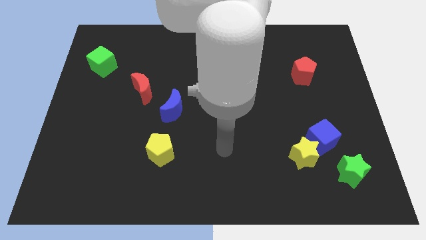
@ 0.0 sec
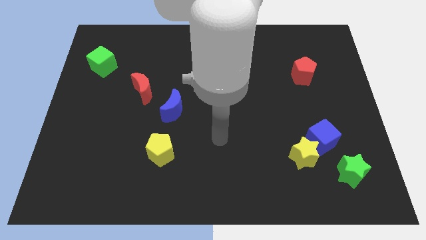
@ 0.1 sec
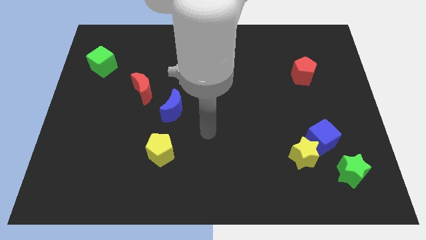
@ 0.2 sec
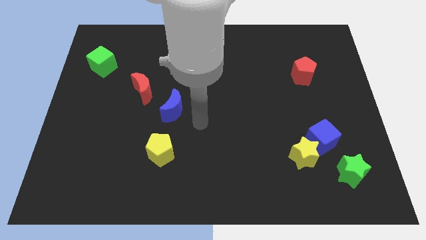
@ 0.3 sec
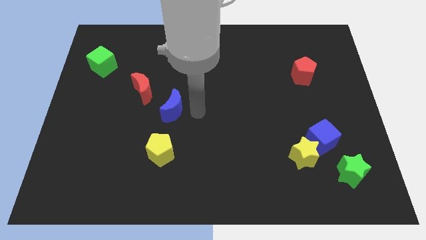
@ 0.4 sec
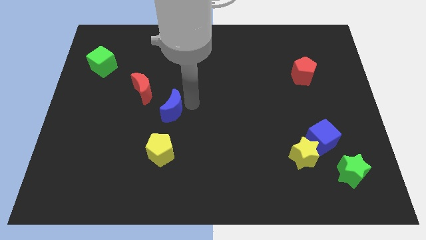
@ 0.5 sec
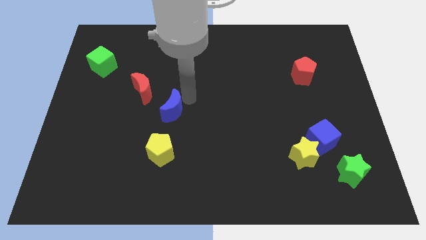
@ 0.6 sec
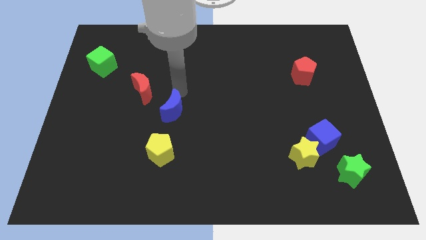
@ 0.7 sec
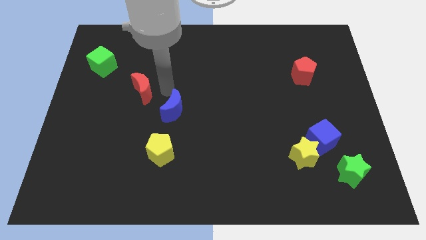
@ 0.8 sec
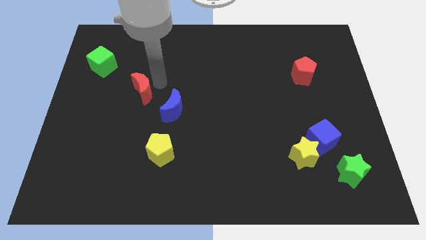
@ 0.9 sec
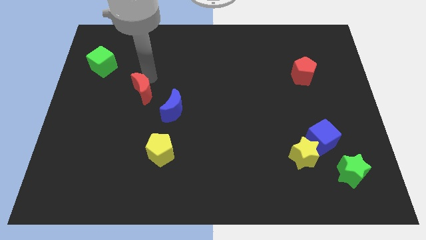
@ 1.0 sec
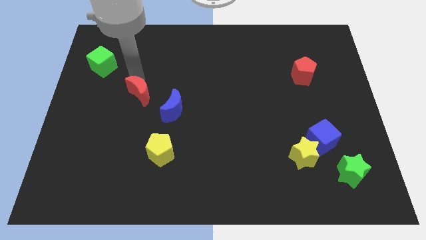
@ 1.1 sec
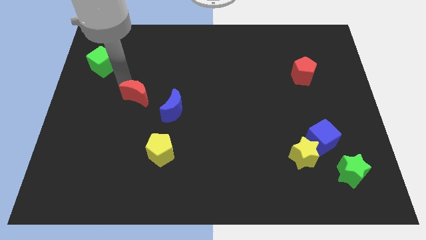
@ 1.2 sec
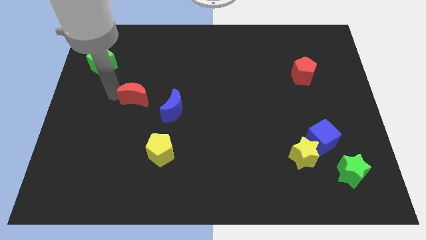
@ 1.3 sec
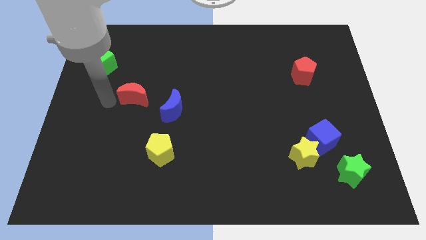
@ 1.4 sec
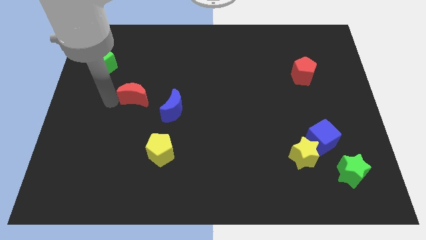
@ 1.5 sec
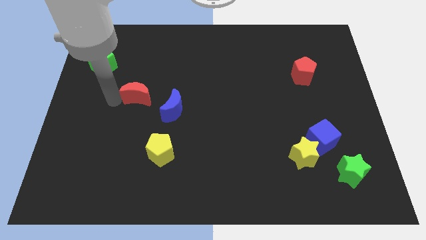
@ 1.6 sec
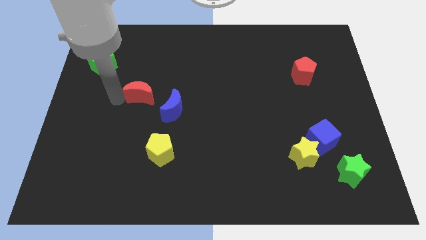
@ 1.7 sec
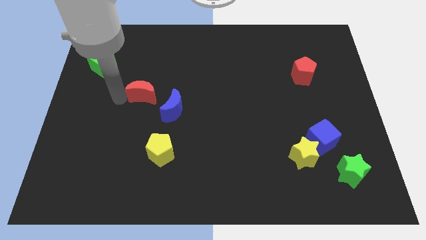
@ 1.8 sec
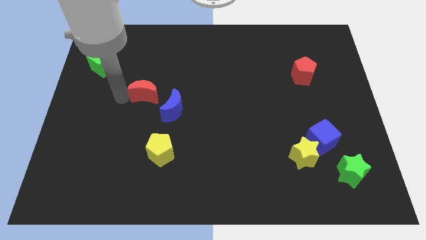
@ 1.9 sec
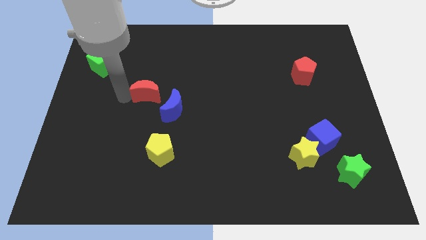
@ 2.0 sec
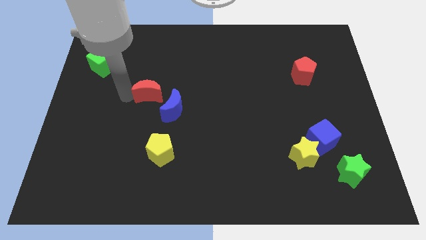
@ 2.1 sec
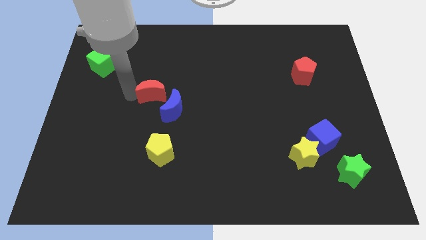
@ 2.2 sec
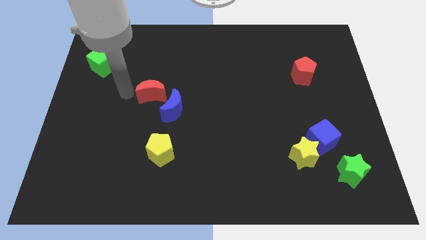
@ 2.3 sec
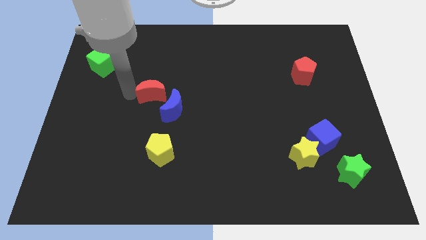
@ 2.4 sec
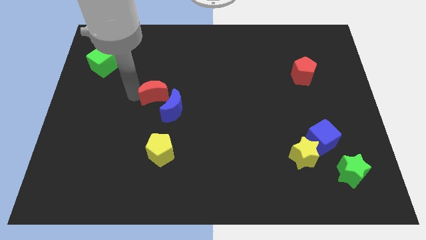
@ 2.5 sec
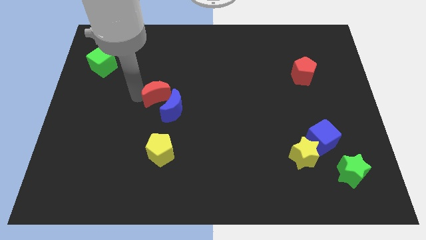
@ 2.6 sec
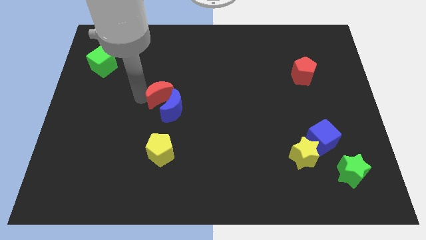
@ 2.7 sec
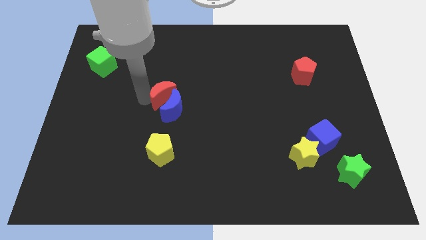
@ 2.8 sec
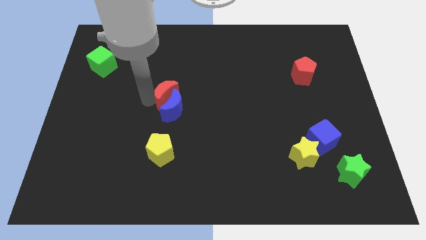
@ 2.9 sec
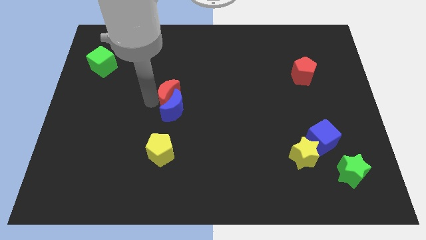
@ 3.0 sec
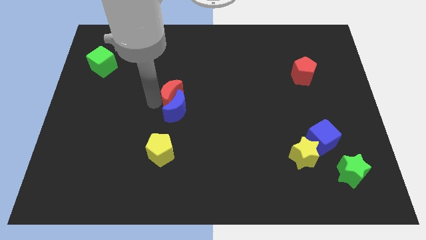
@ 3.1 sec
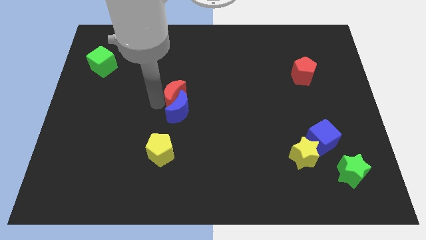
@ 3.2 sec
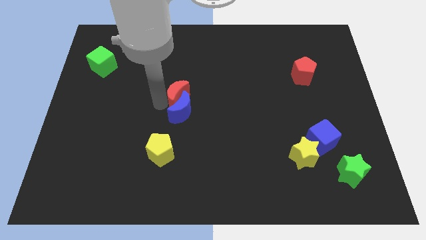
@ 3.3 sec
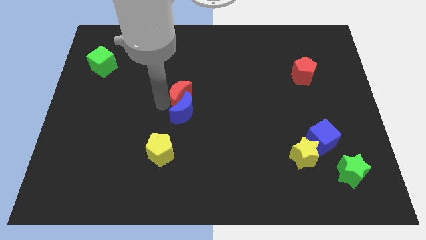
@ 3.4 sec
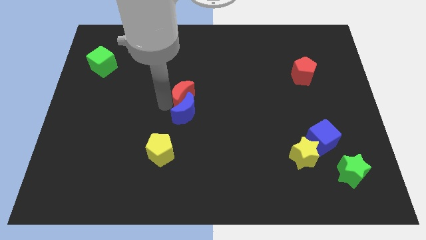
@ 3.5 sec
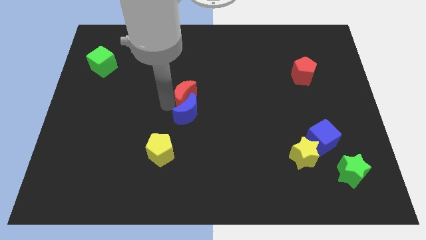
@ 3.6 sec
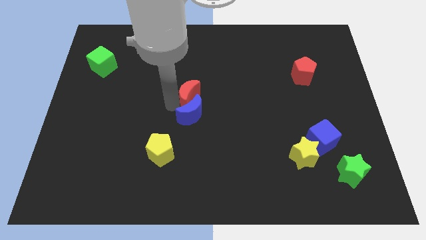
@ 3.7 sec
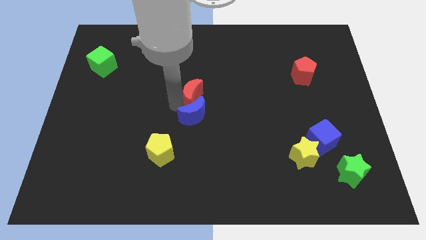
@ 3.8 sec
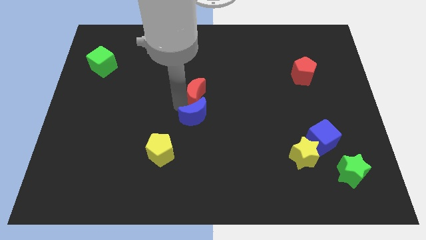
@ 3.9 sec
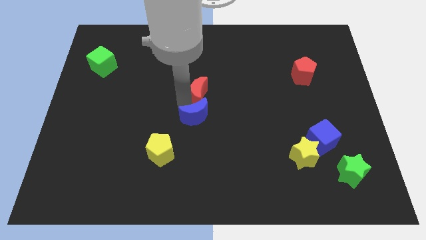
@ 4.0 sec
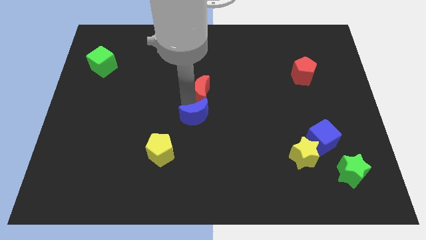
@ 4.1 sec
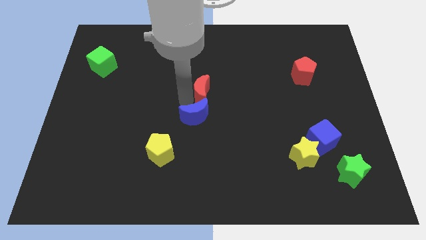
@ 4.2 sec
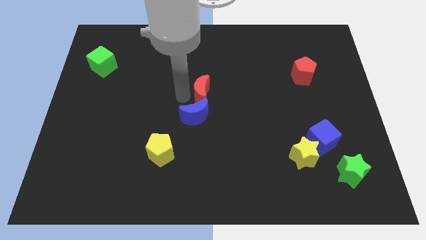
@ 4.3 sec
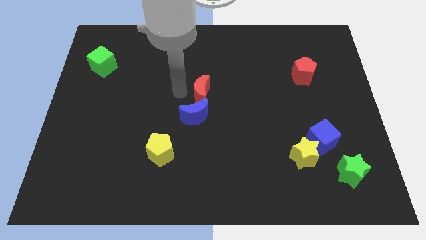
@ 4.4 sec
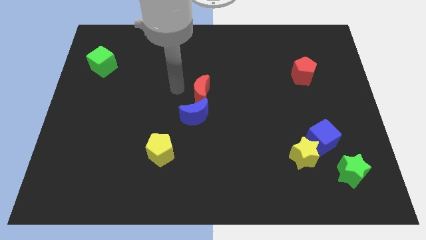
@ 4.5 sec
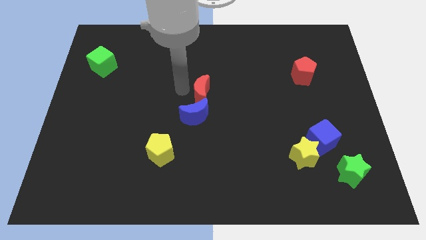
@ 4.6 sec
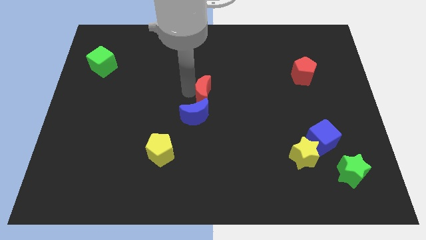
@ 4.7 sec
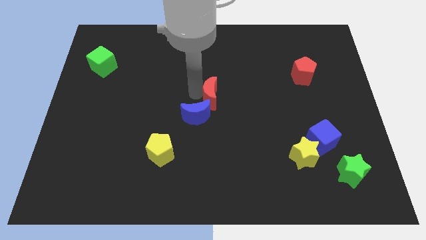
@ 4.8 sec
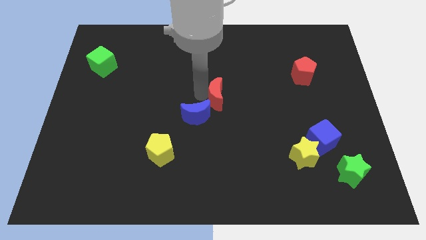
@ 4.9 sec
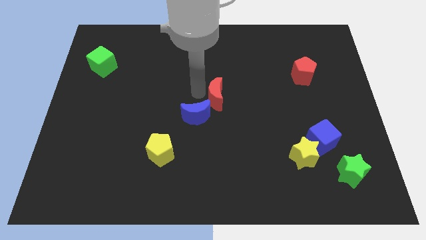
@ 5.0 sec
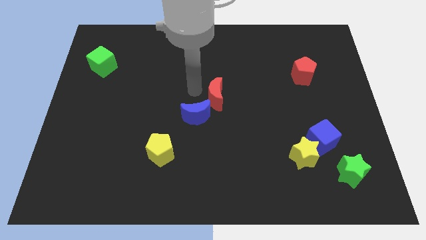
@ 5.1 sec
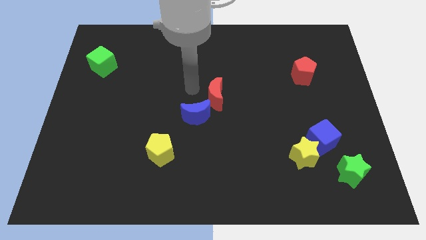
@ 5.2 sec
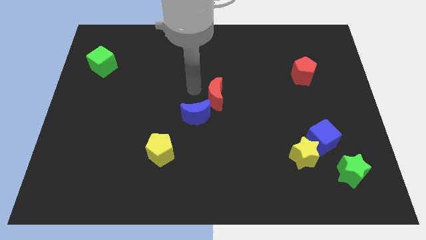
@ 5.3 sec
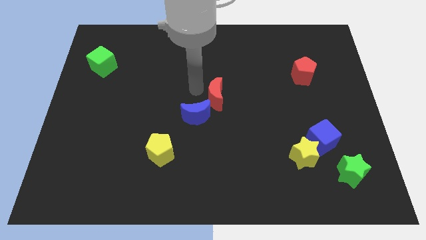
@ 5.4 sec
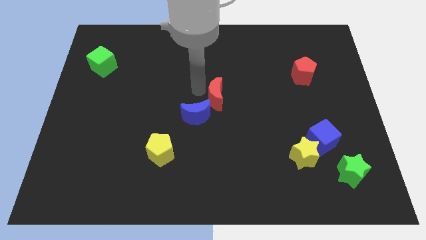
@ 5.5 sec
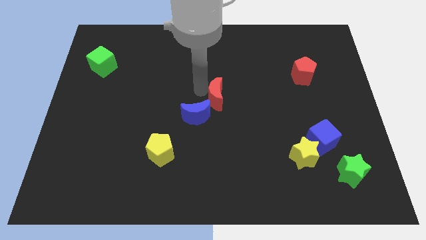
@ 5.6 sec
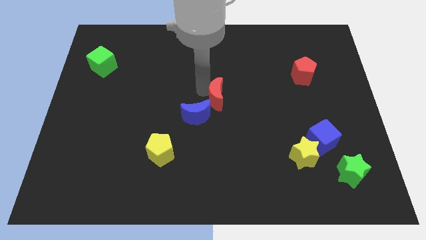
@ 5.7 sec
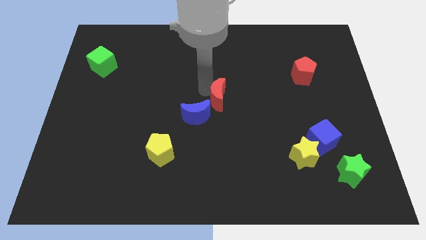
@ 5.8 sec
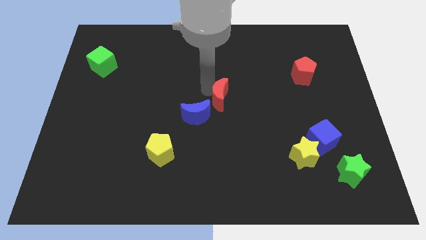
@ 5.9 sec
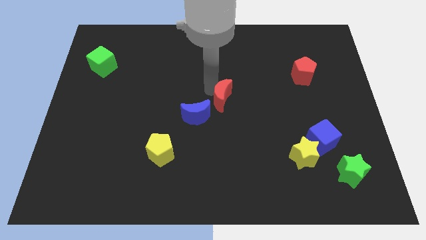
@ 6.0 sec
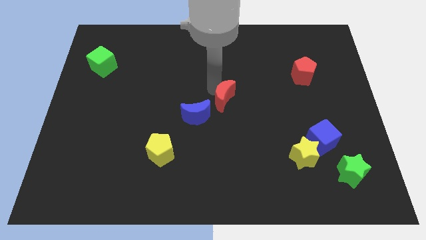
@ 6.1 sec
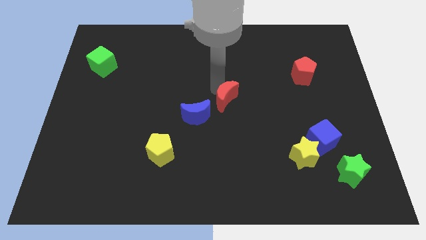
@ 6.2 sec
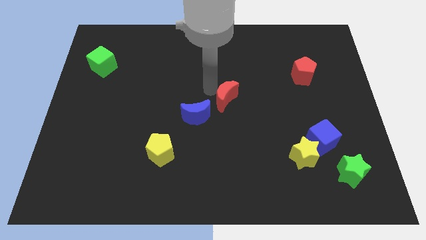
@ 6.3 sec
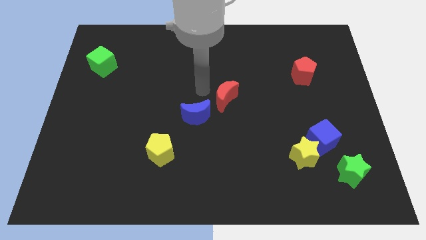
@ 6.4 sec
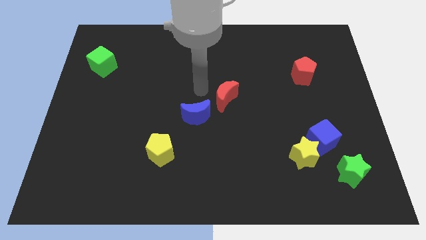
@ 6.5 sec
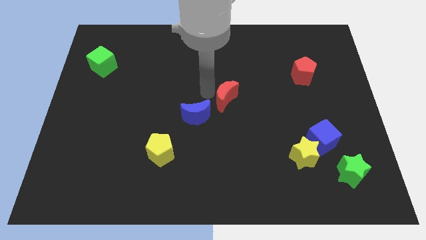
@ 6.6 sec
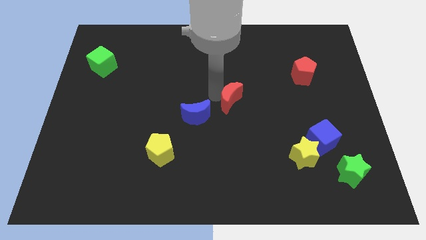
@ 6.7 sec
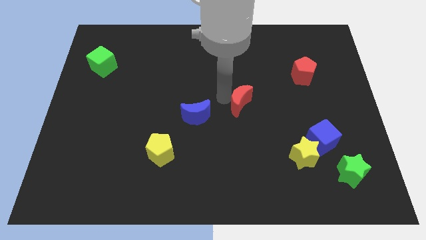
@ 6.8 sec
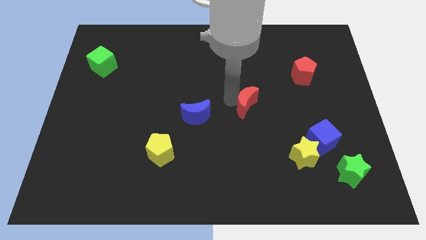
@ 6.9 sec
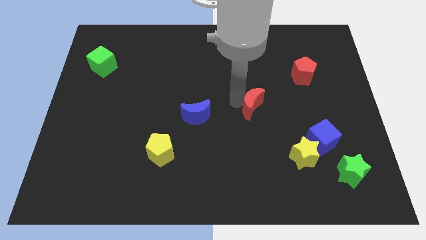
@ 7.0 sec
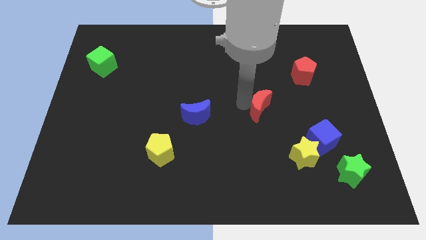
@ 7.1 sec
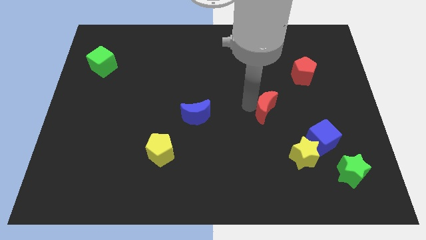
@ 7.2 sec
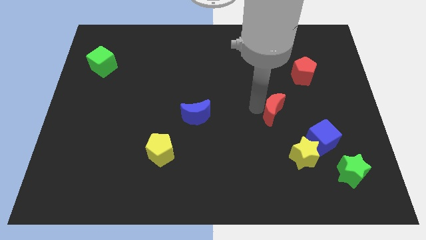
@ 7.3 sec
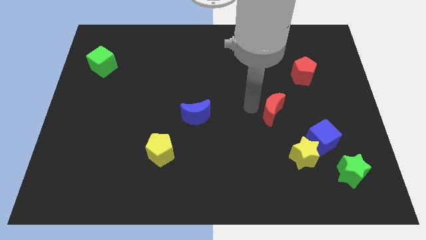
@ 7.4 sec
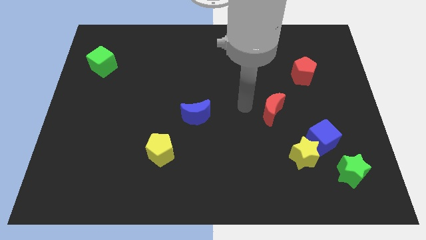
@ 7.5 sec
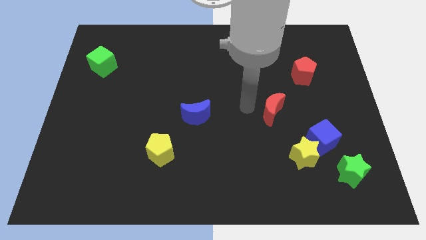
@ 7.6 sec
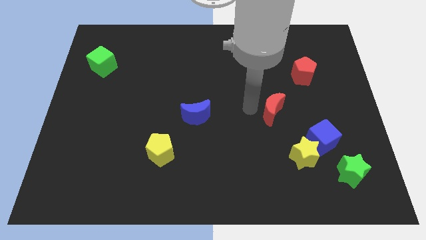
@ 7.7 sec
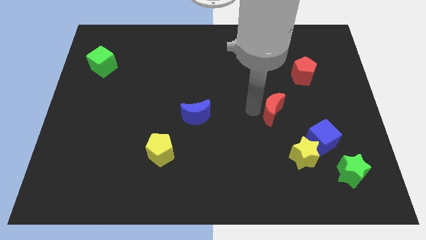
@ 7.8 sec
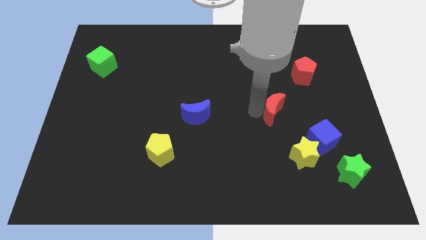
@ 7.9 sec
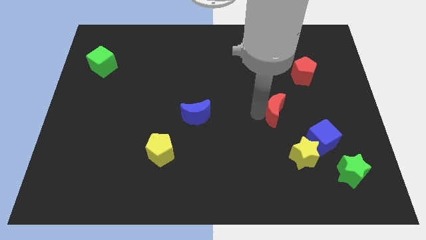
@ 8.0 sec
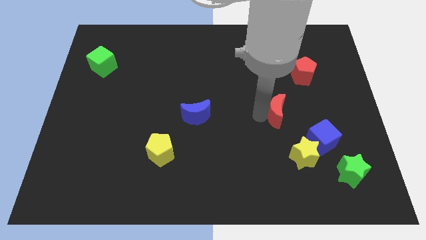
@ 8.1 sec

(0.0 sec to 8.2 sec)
slide the red moon to the top of the yellow star

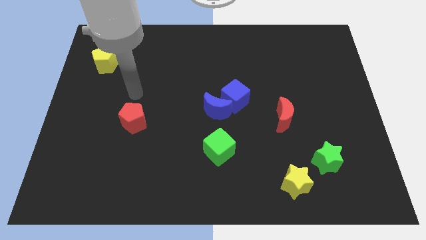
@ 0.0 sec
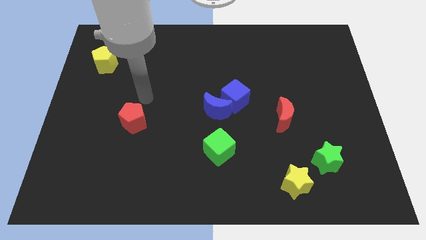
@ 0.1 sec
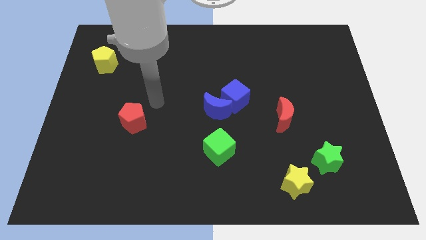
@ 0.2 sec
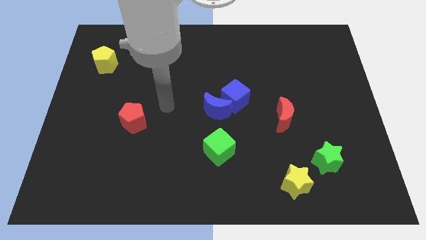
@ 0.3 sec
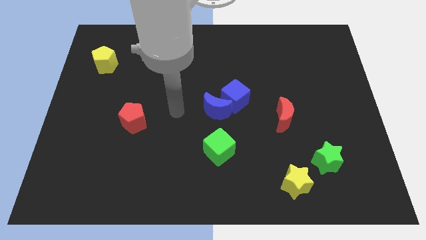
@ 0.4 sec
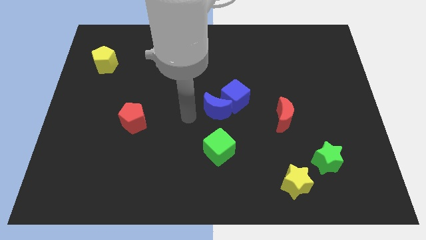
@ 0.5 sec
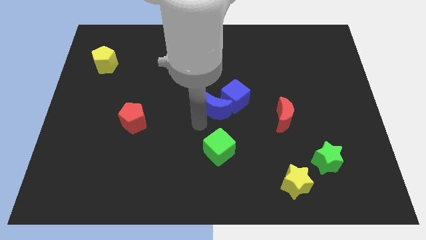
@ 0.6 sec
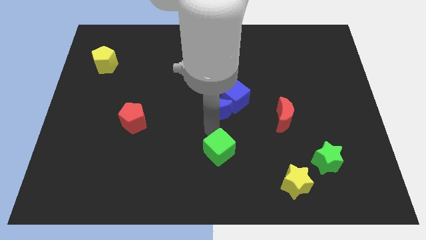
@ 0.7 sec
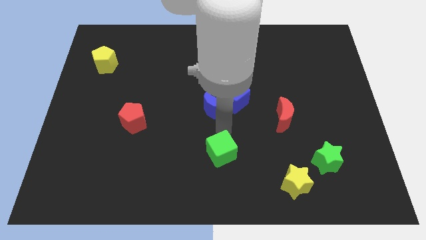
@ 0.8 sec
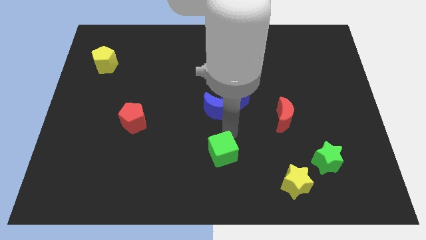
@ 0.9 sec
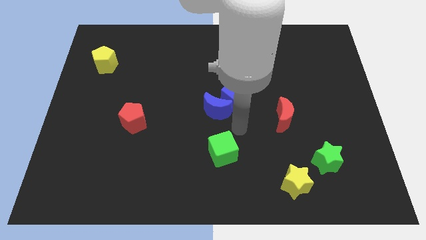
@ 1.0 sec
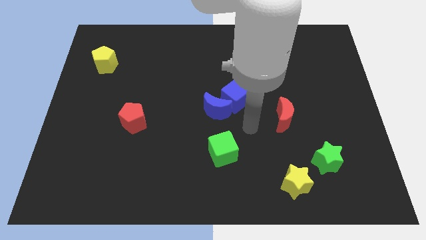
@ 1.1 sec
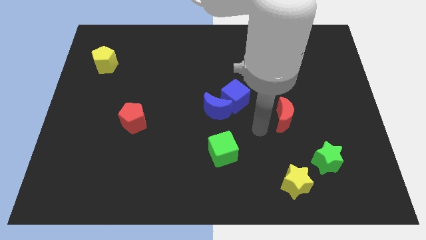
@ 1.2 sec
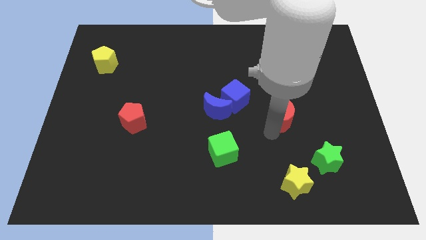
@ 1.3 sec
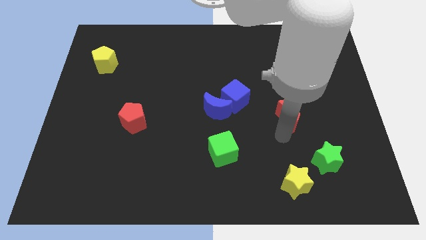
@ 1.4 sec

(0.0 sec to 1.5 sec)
push the green star to the bottom right of the red moon
